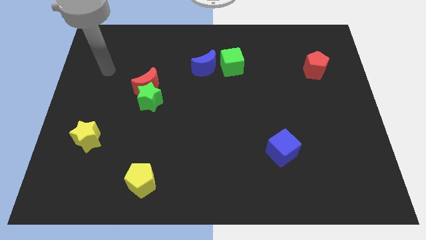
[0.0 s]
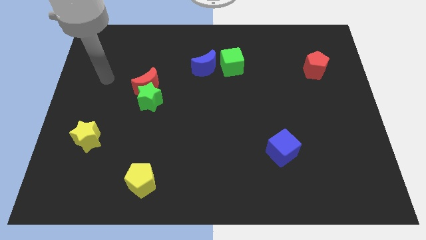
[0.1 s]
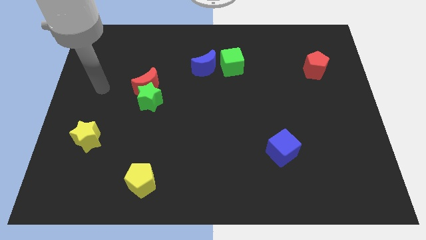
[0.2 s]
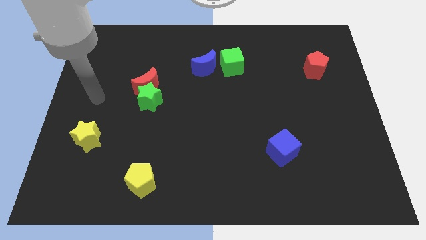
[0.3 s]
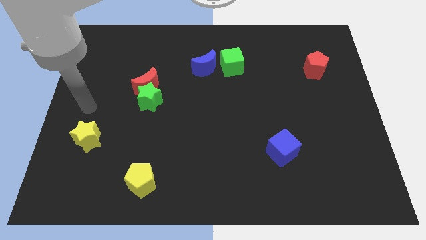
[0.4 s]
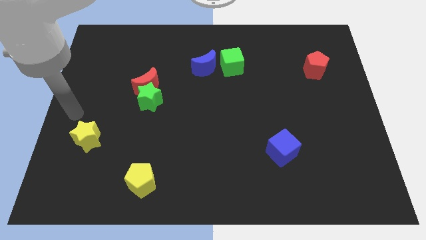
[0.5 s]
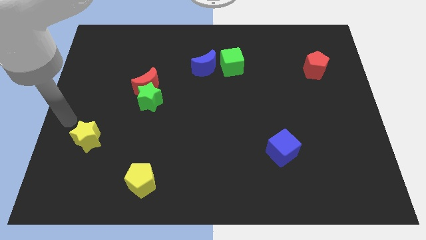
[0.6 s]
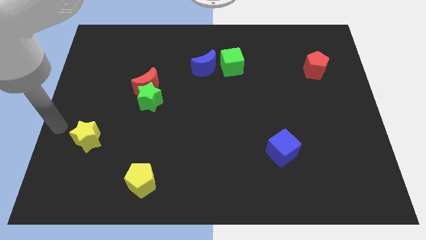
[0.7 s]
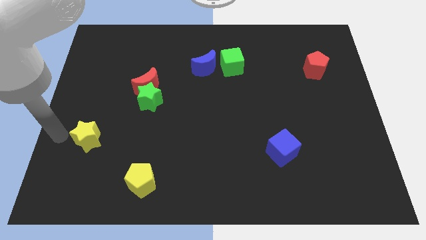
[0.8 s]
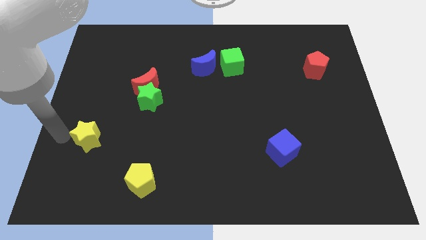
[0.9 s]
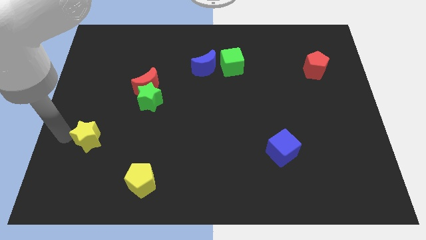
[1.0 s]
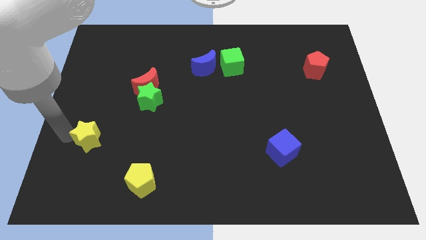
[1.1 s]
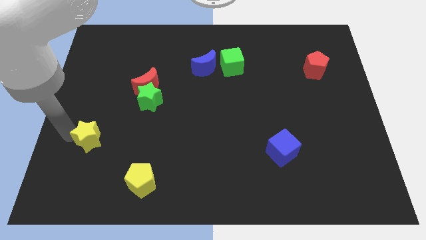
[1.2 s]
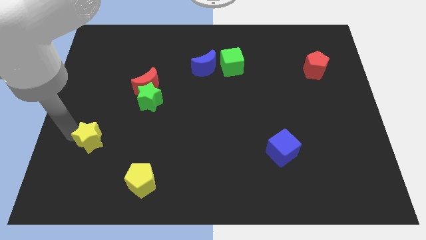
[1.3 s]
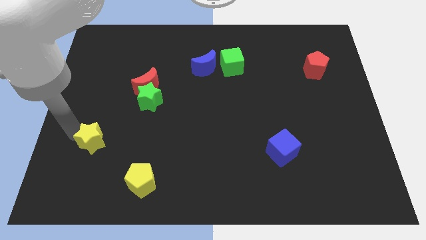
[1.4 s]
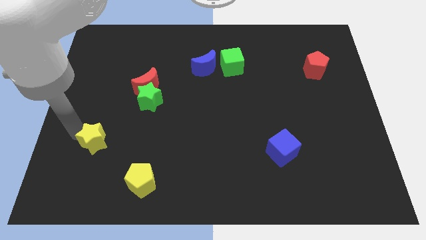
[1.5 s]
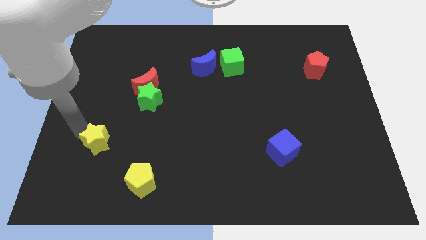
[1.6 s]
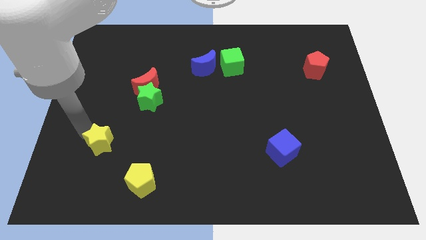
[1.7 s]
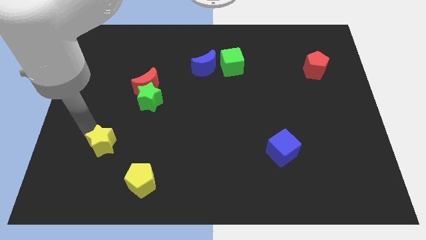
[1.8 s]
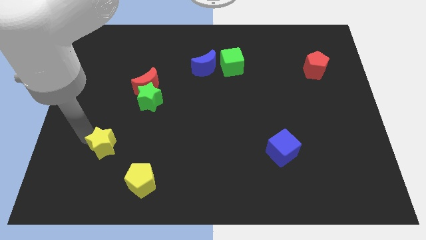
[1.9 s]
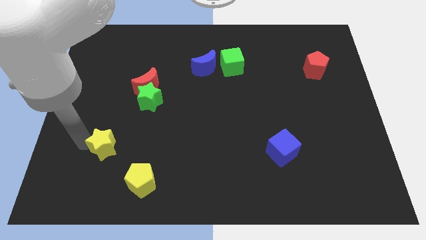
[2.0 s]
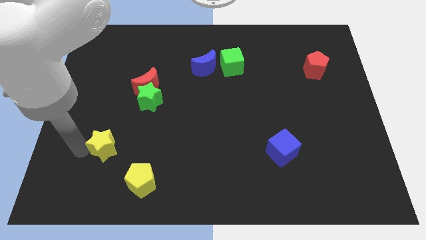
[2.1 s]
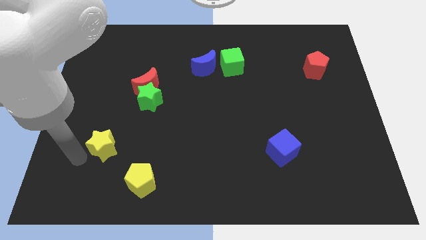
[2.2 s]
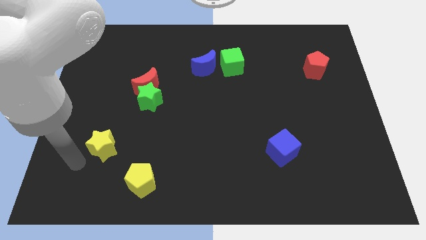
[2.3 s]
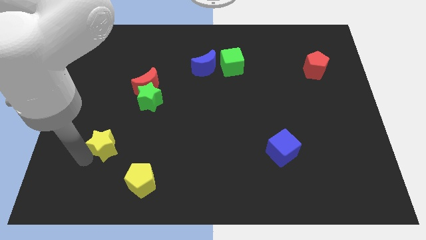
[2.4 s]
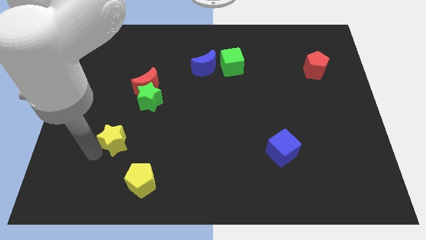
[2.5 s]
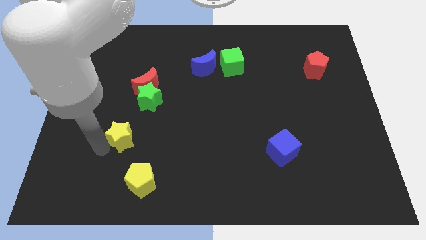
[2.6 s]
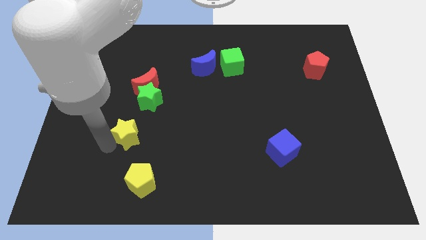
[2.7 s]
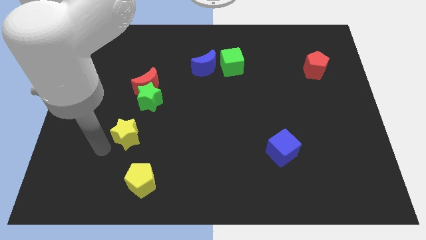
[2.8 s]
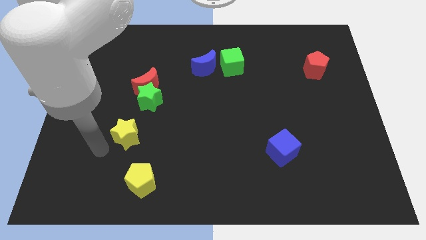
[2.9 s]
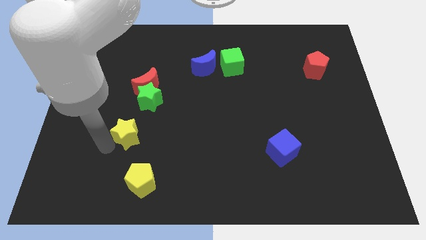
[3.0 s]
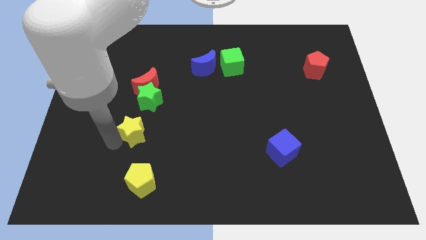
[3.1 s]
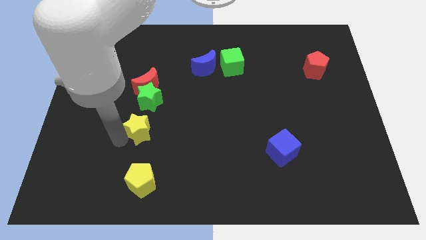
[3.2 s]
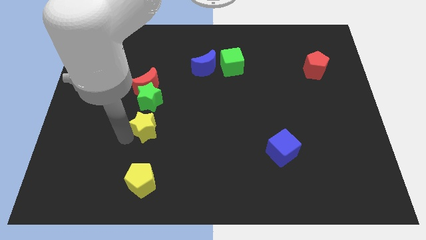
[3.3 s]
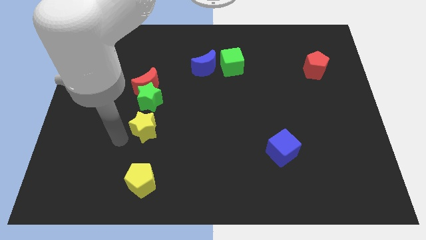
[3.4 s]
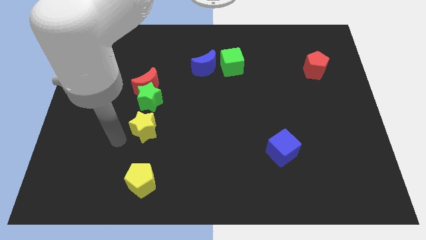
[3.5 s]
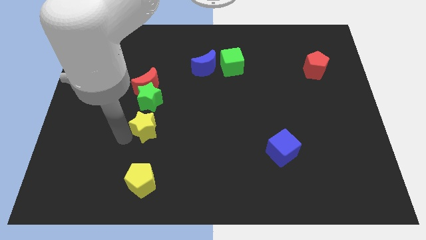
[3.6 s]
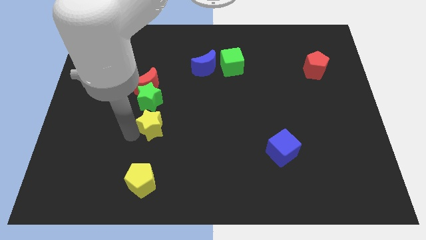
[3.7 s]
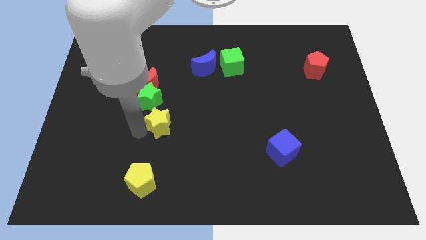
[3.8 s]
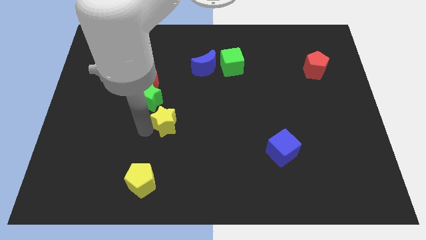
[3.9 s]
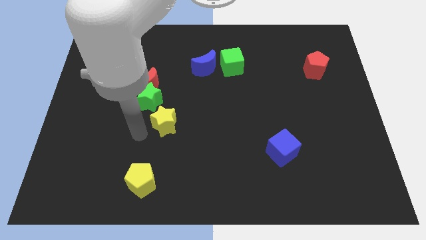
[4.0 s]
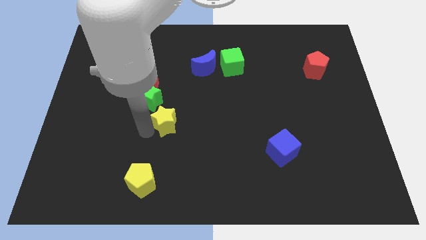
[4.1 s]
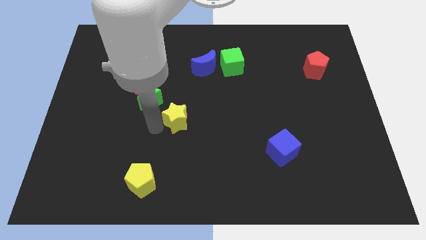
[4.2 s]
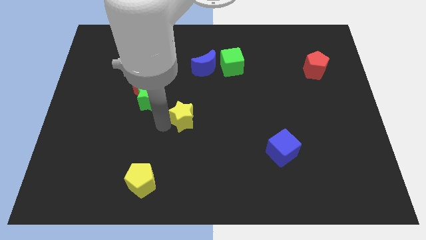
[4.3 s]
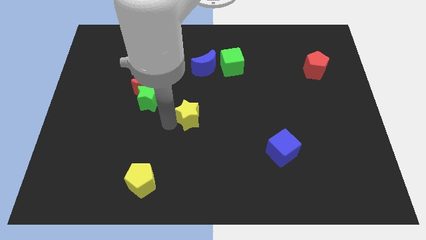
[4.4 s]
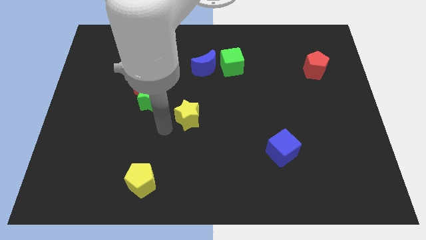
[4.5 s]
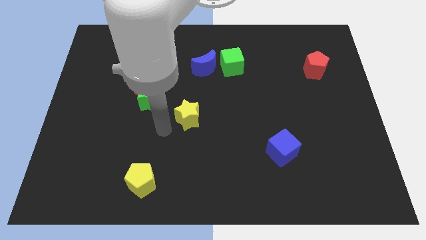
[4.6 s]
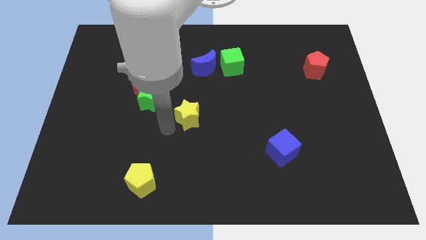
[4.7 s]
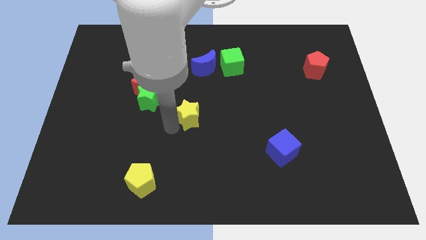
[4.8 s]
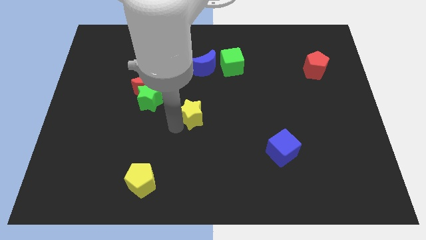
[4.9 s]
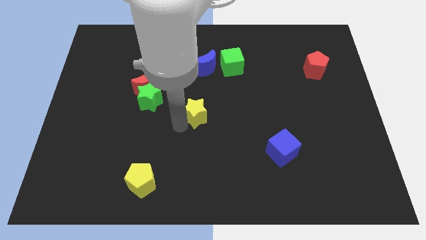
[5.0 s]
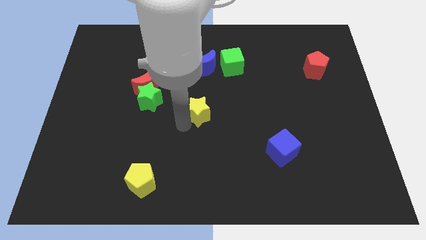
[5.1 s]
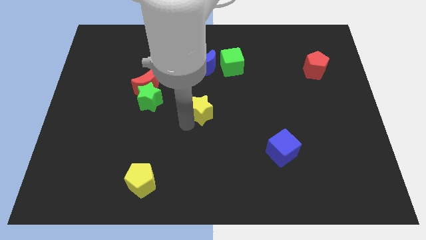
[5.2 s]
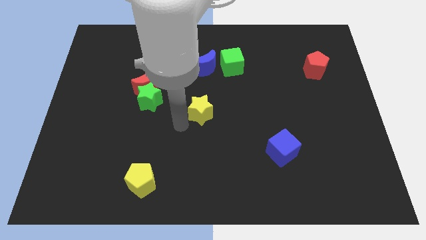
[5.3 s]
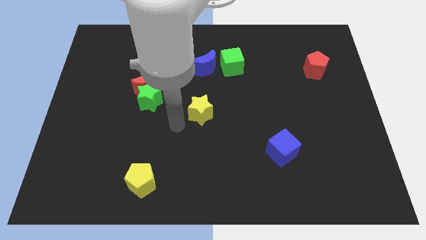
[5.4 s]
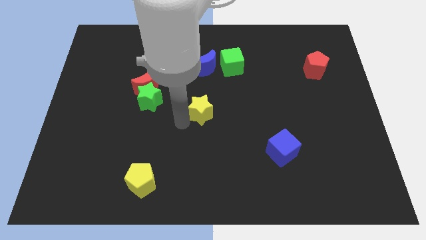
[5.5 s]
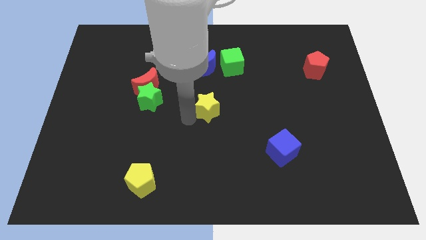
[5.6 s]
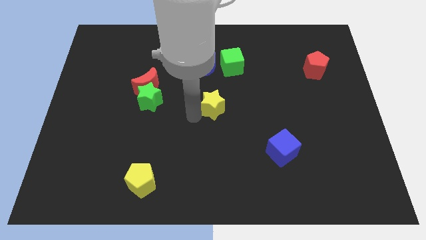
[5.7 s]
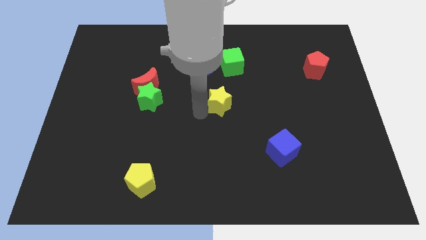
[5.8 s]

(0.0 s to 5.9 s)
move the yellow star to the bottom of the green cube

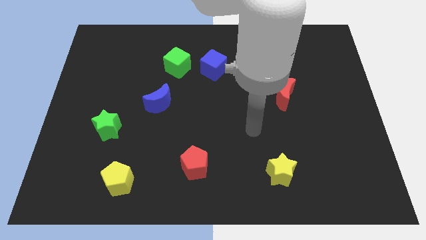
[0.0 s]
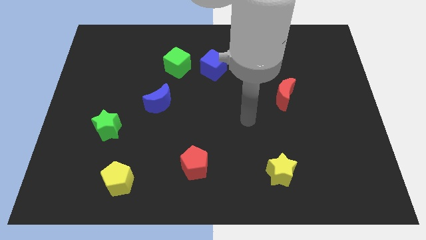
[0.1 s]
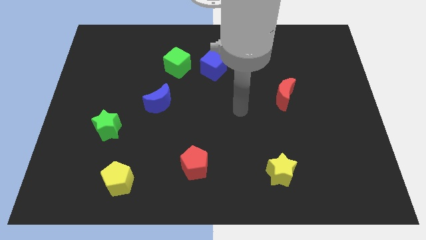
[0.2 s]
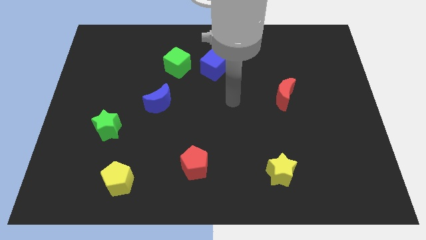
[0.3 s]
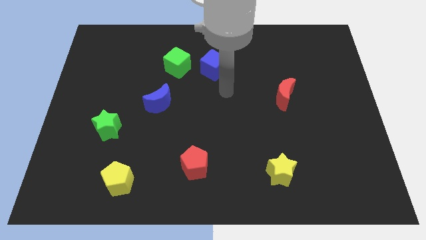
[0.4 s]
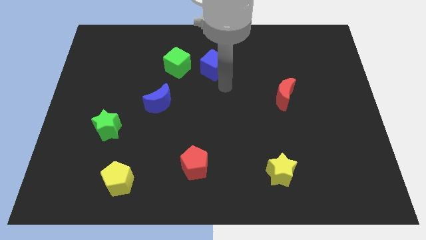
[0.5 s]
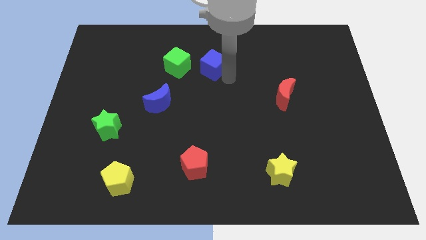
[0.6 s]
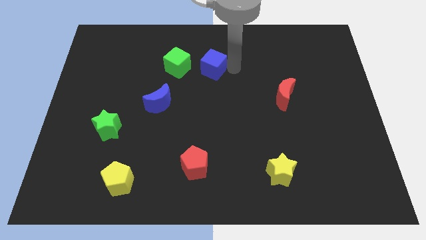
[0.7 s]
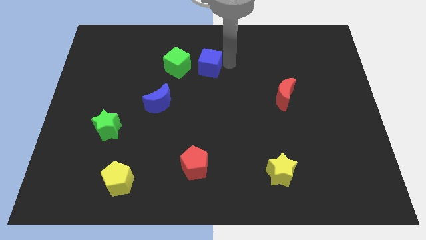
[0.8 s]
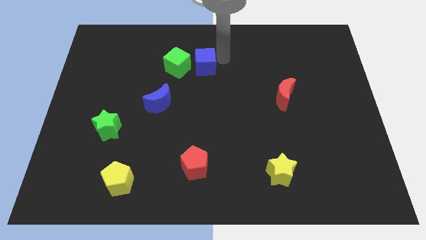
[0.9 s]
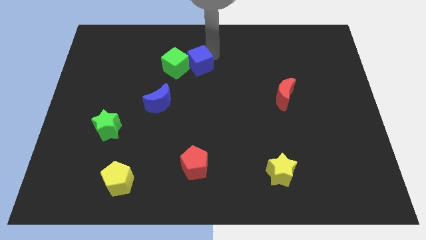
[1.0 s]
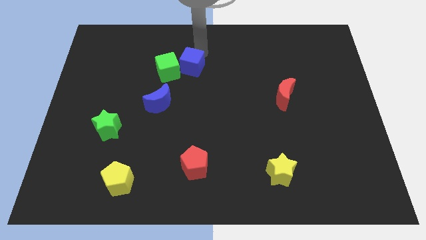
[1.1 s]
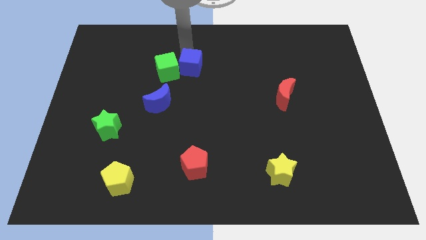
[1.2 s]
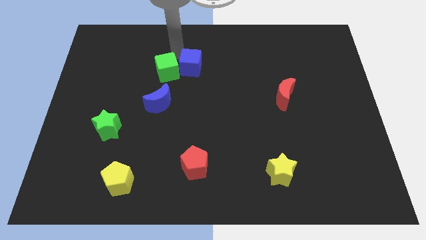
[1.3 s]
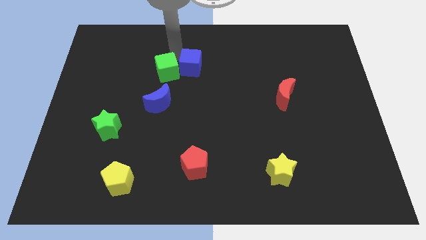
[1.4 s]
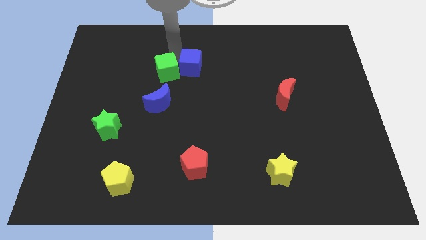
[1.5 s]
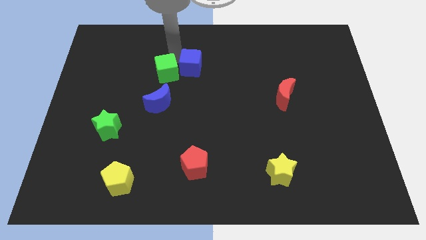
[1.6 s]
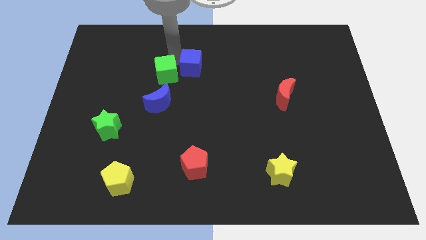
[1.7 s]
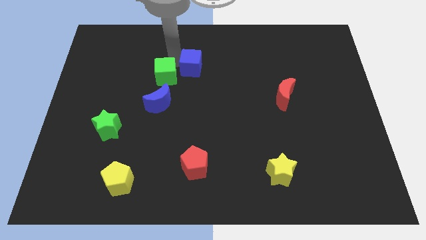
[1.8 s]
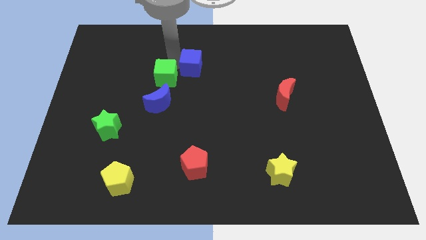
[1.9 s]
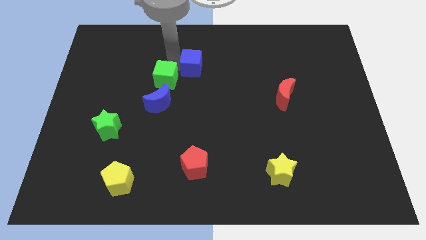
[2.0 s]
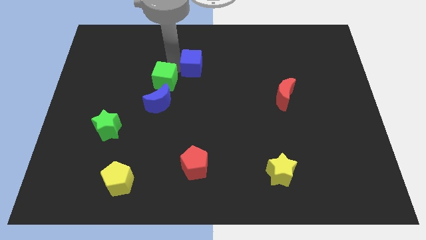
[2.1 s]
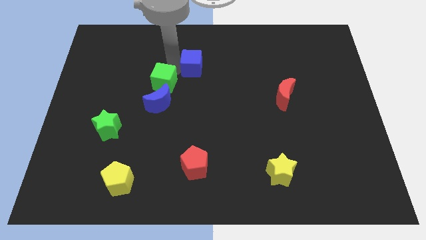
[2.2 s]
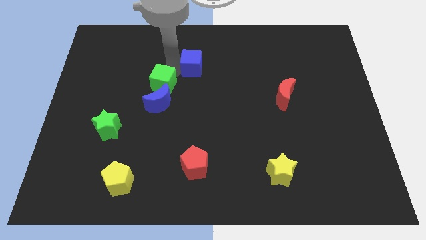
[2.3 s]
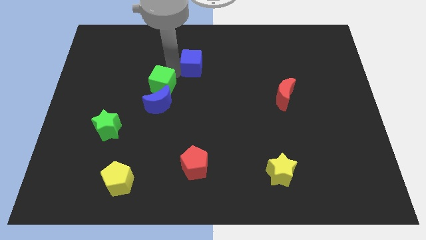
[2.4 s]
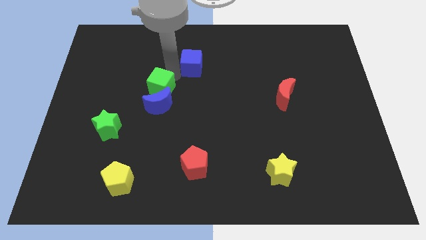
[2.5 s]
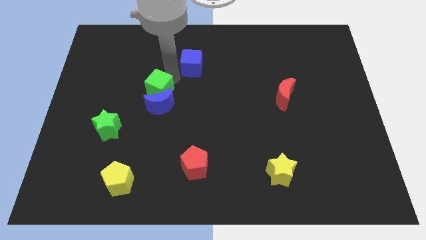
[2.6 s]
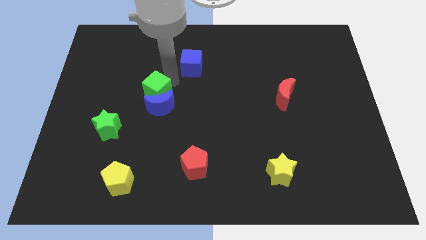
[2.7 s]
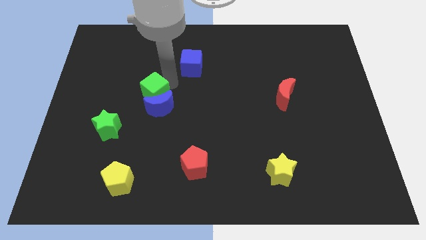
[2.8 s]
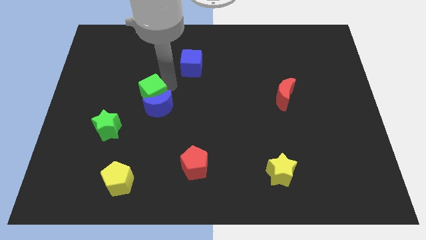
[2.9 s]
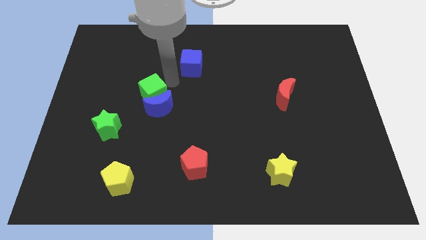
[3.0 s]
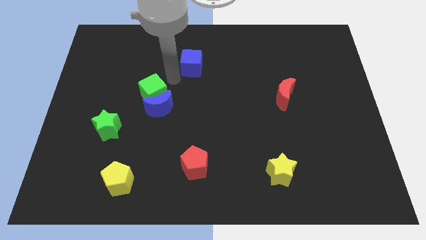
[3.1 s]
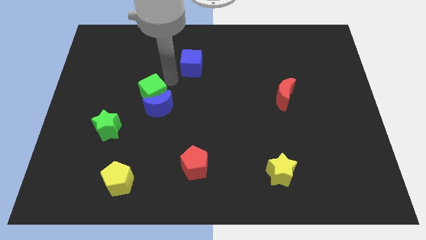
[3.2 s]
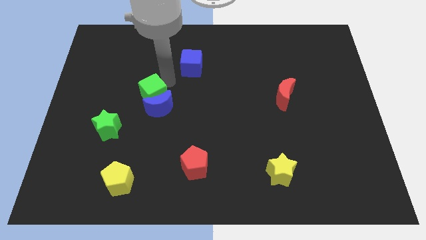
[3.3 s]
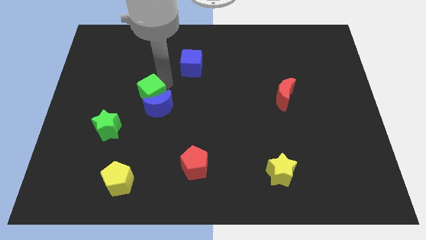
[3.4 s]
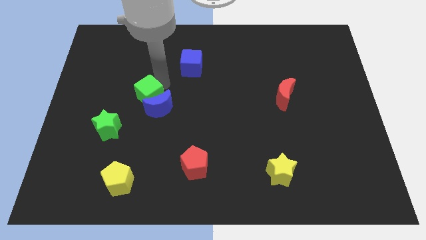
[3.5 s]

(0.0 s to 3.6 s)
put the green cube diagonally up and to the right of the green star
